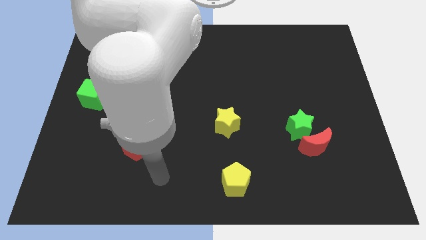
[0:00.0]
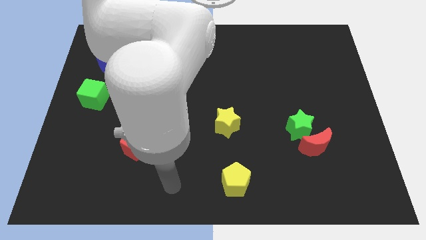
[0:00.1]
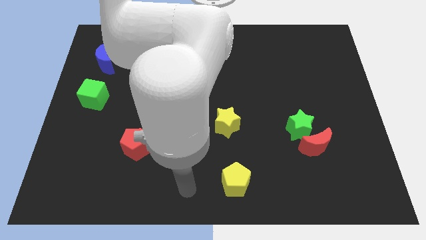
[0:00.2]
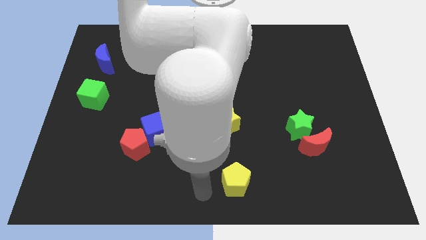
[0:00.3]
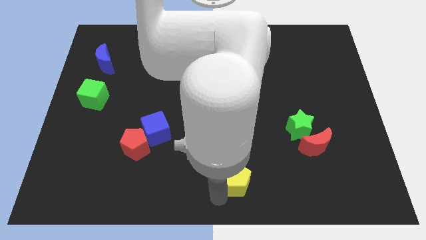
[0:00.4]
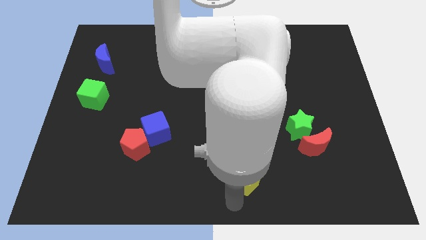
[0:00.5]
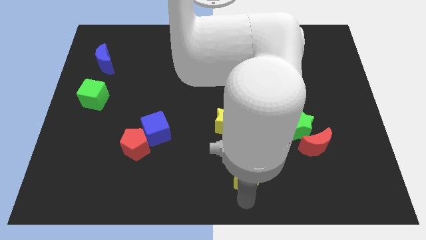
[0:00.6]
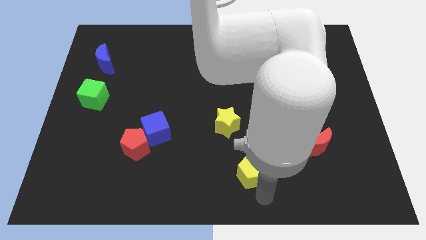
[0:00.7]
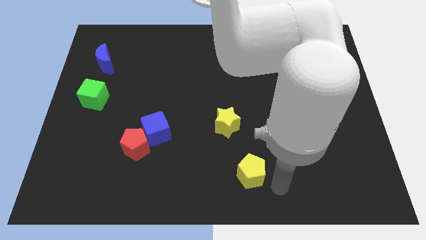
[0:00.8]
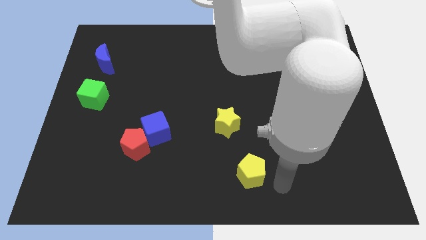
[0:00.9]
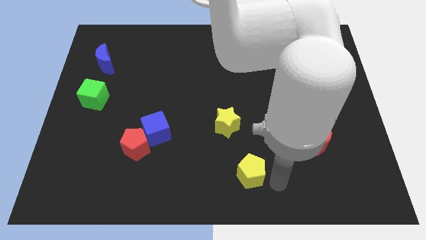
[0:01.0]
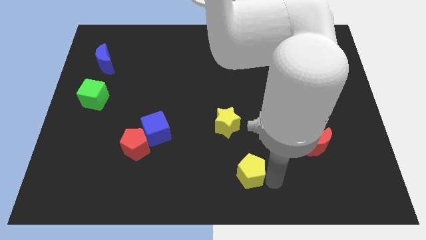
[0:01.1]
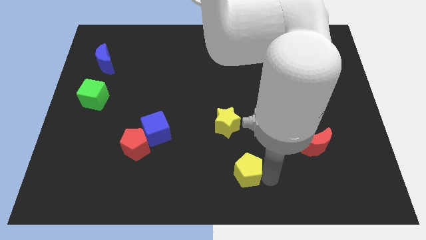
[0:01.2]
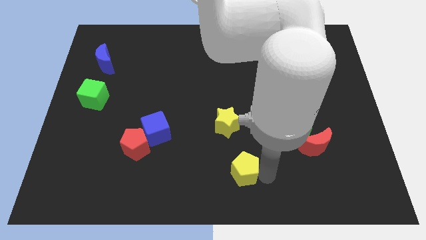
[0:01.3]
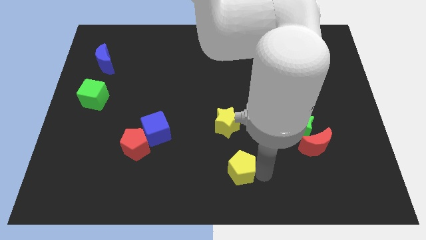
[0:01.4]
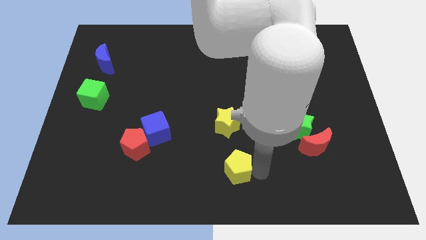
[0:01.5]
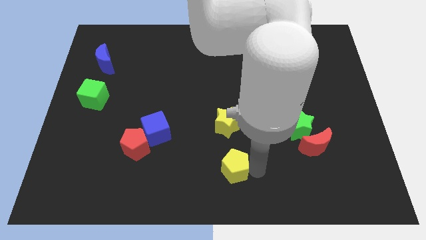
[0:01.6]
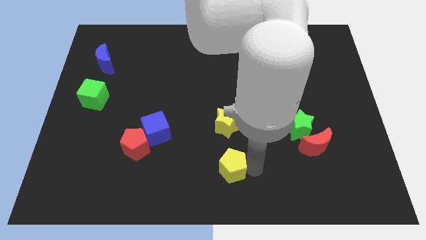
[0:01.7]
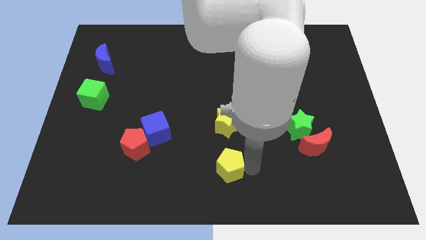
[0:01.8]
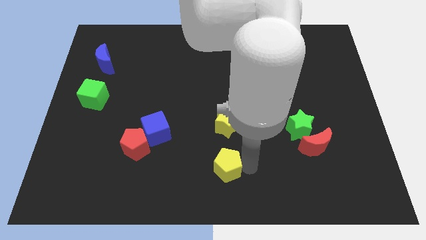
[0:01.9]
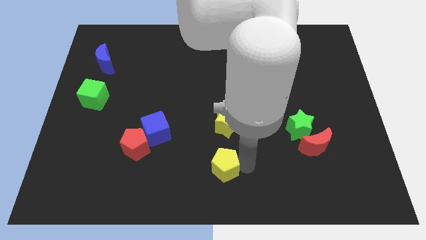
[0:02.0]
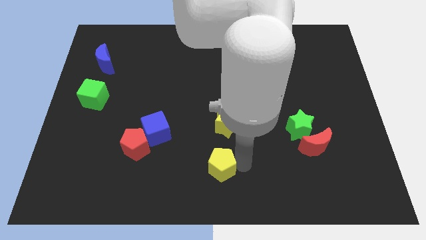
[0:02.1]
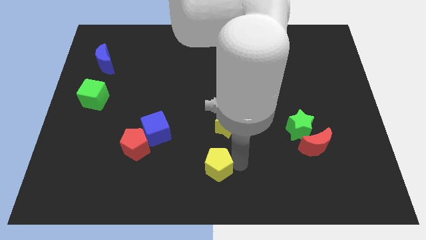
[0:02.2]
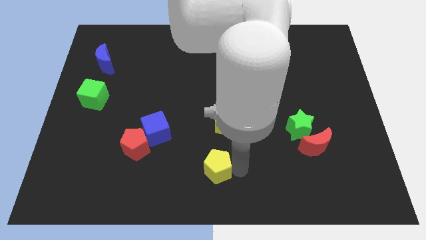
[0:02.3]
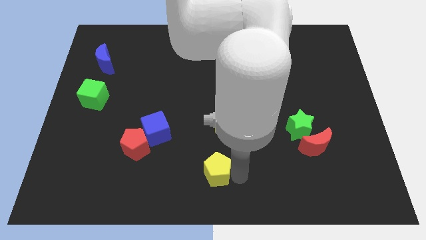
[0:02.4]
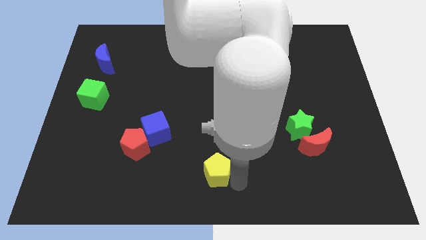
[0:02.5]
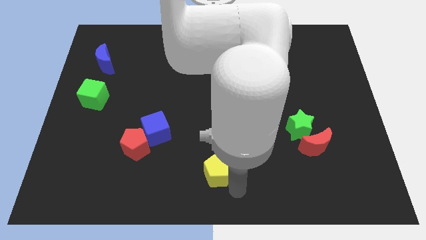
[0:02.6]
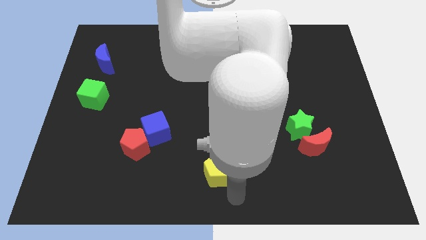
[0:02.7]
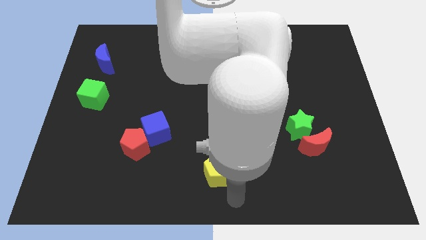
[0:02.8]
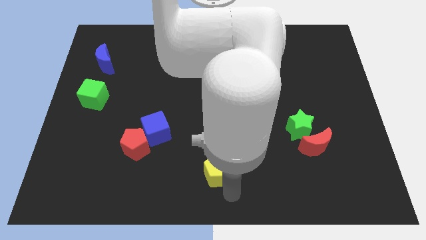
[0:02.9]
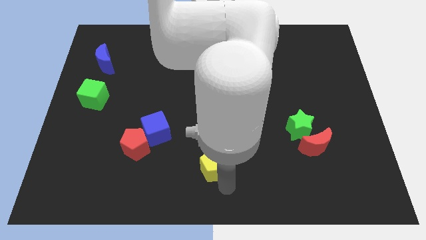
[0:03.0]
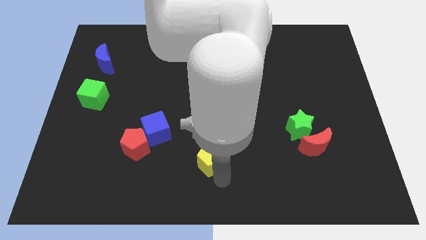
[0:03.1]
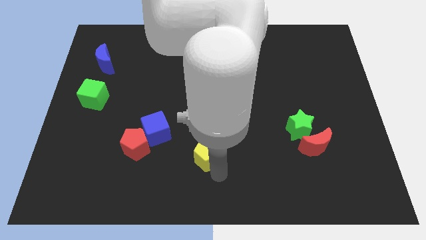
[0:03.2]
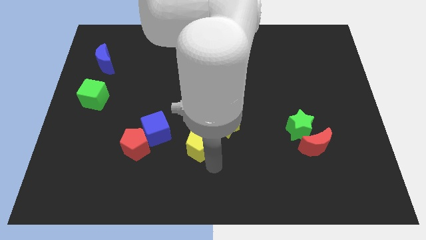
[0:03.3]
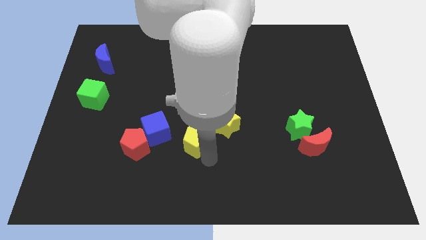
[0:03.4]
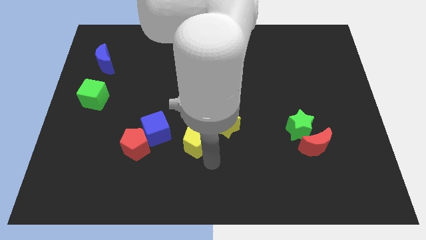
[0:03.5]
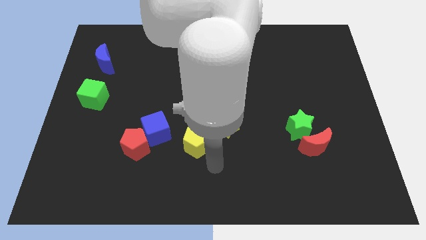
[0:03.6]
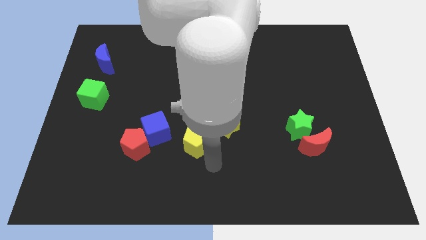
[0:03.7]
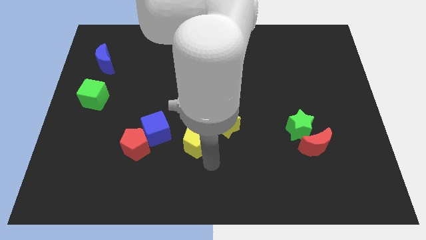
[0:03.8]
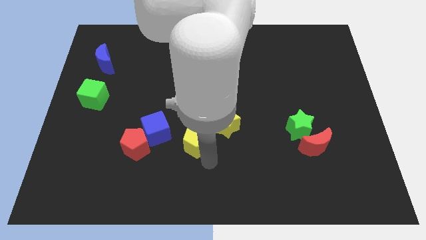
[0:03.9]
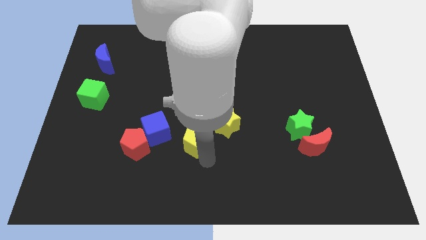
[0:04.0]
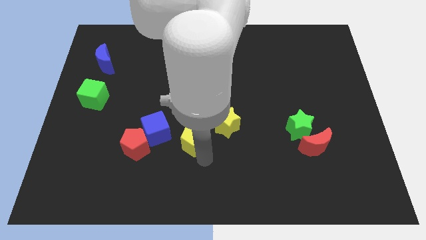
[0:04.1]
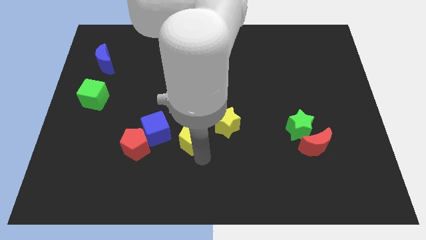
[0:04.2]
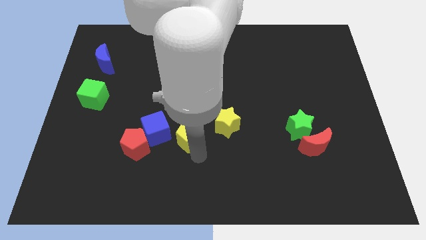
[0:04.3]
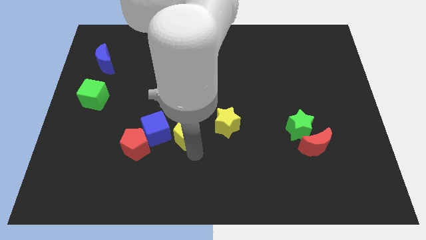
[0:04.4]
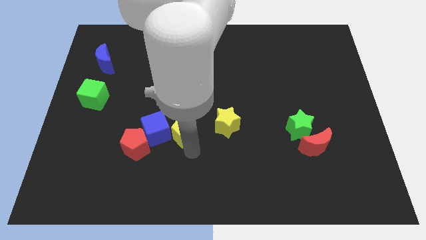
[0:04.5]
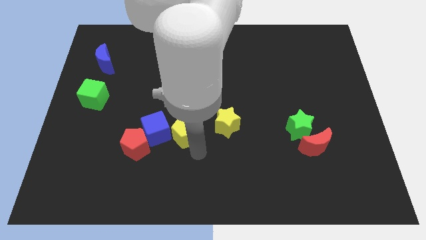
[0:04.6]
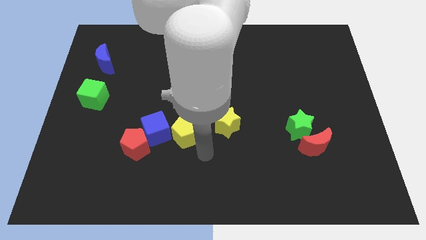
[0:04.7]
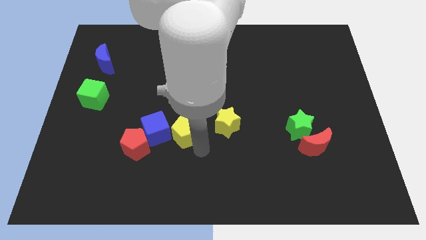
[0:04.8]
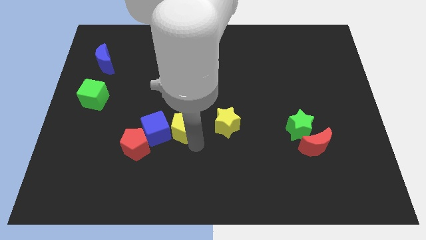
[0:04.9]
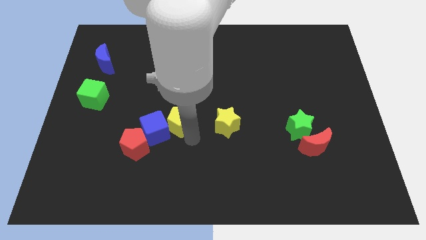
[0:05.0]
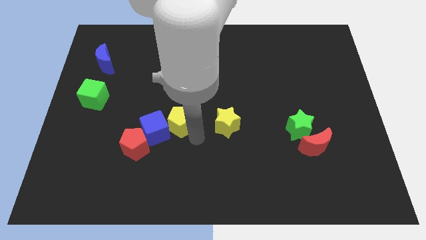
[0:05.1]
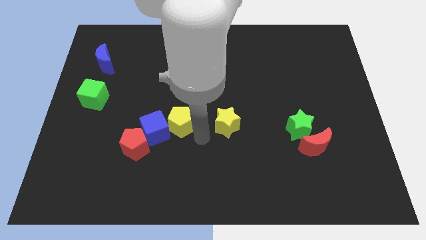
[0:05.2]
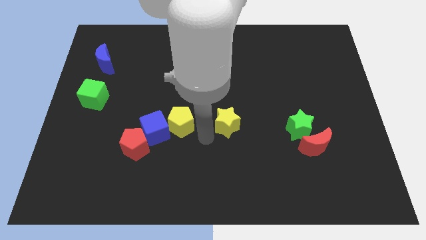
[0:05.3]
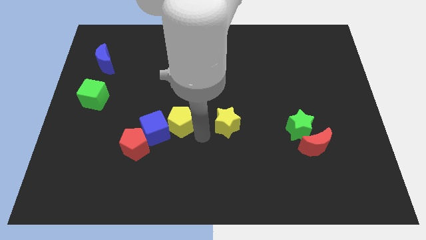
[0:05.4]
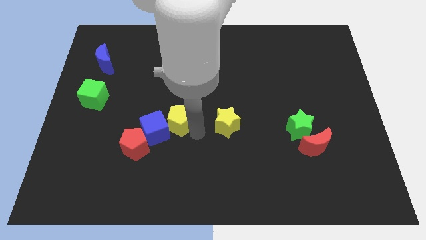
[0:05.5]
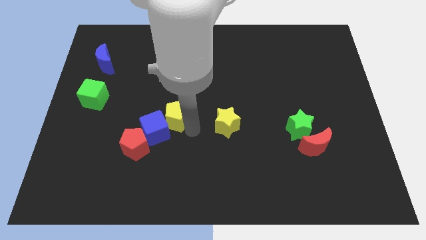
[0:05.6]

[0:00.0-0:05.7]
push the yellow pentagon up and then to the left

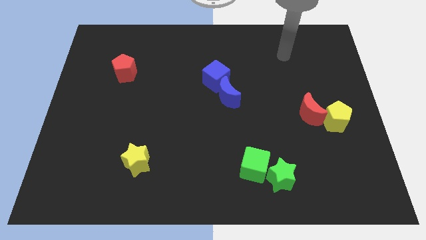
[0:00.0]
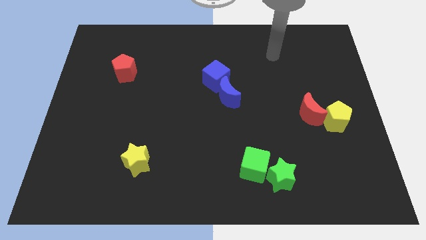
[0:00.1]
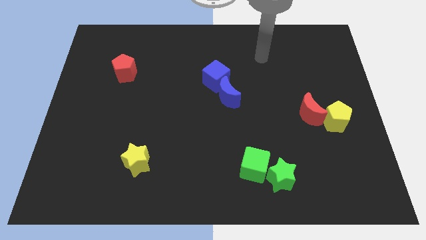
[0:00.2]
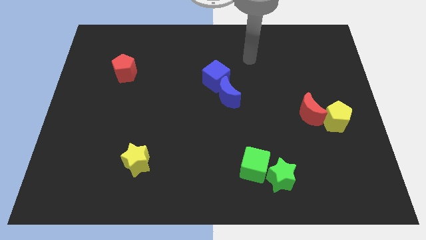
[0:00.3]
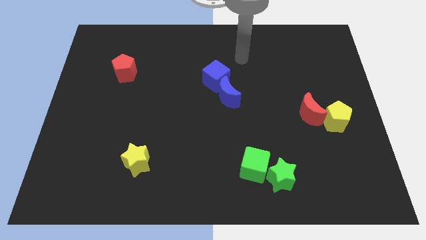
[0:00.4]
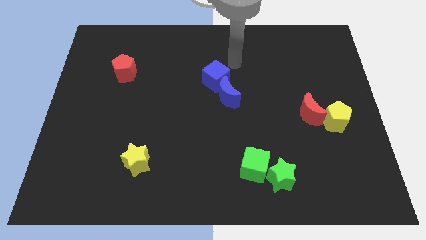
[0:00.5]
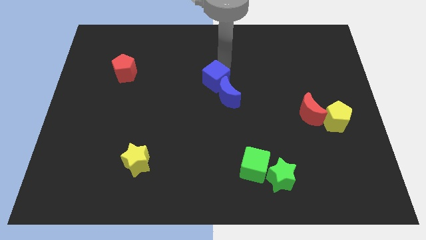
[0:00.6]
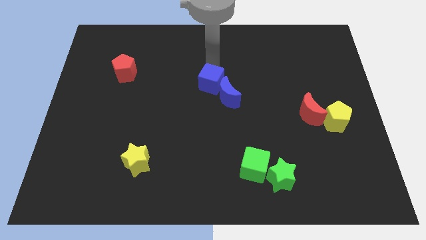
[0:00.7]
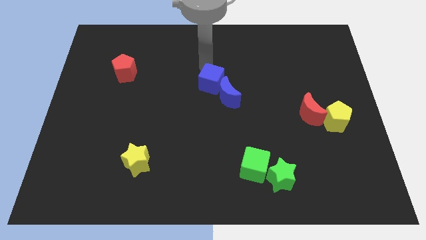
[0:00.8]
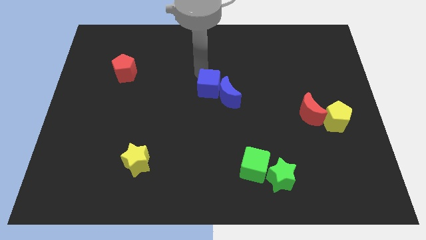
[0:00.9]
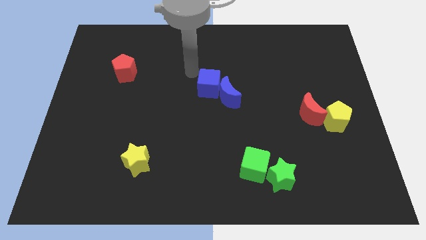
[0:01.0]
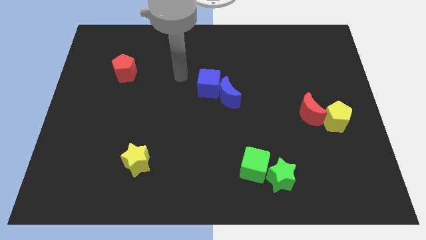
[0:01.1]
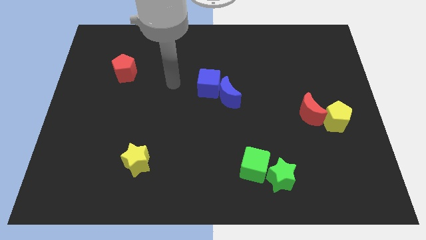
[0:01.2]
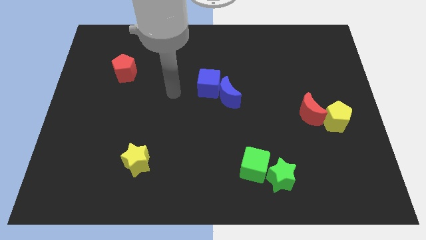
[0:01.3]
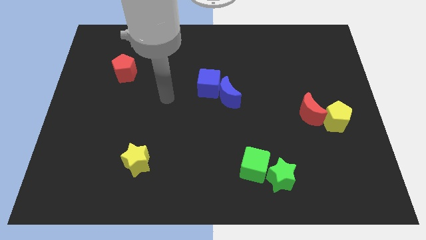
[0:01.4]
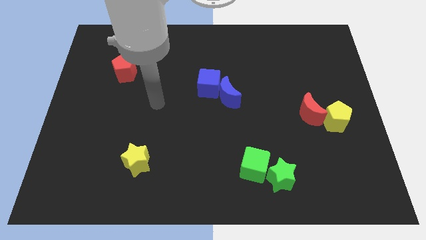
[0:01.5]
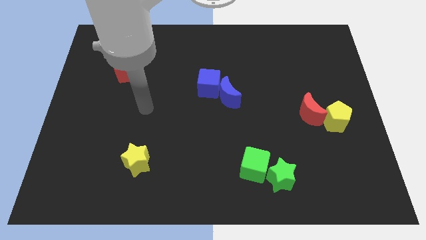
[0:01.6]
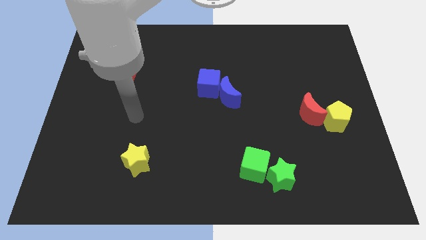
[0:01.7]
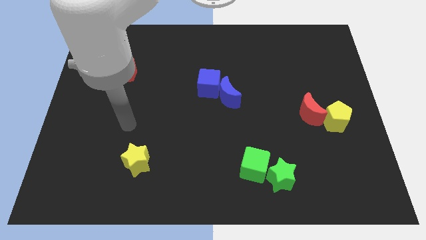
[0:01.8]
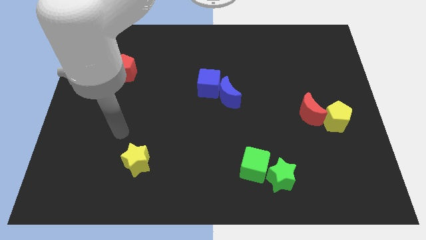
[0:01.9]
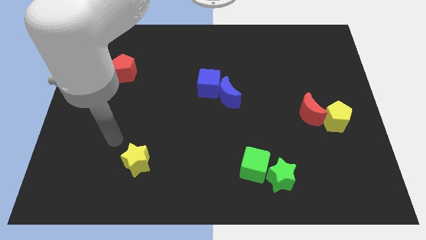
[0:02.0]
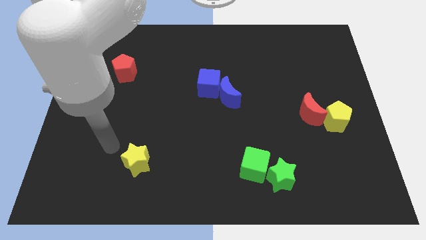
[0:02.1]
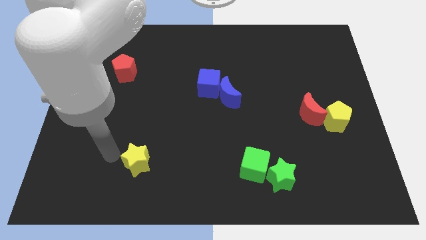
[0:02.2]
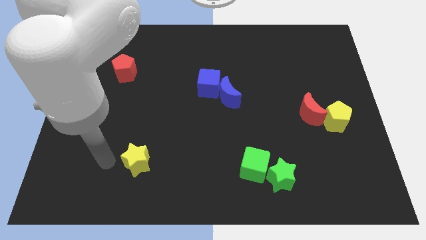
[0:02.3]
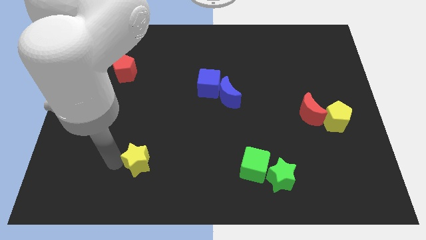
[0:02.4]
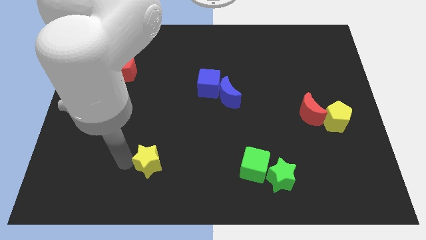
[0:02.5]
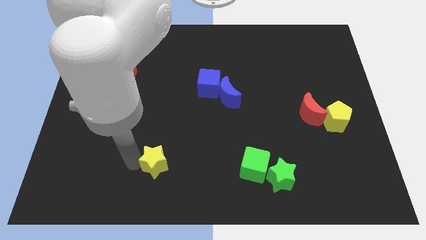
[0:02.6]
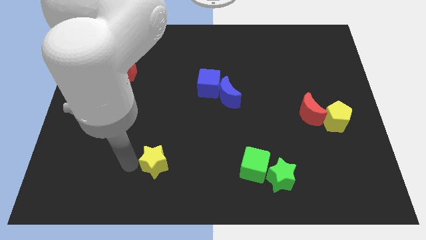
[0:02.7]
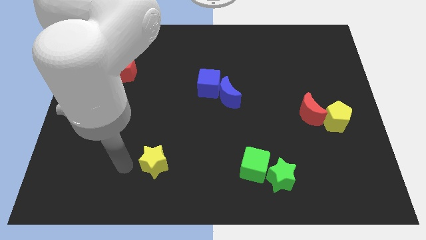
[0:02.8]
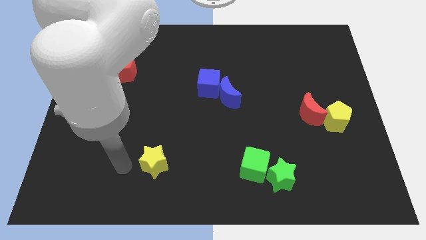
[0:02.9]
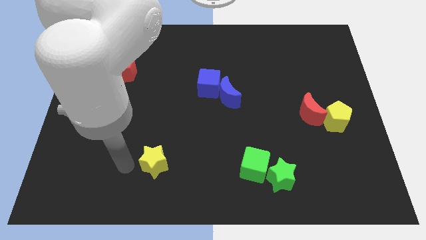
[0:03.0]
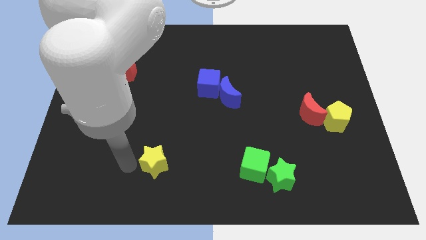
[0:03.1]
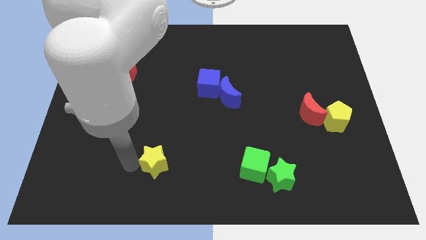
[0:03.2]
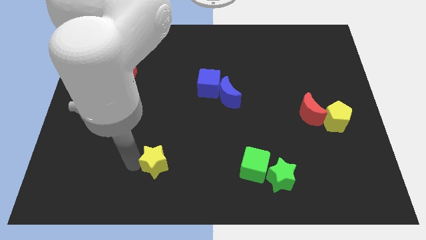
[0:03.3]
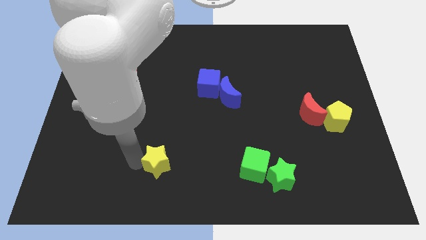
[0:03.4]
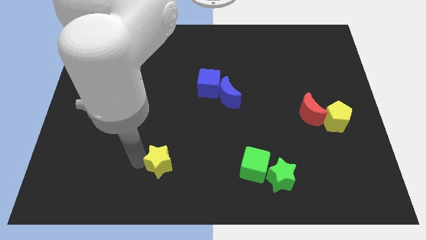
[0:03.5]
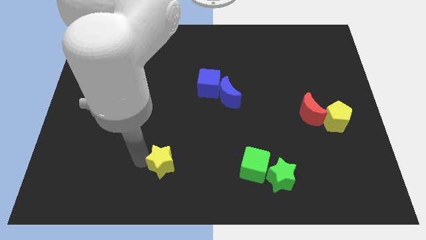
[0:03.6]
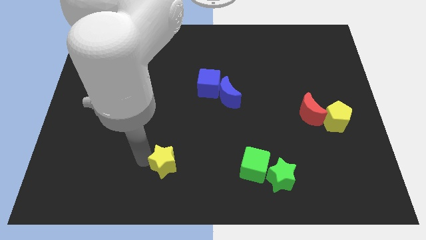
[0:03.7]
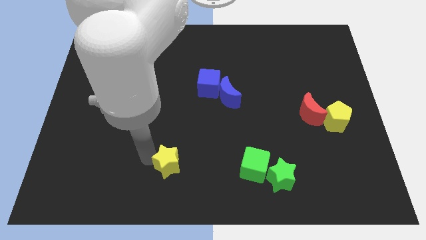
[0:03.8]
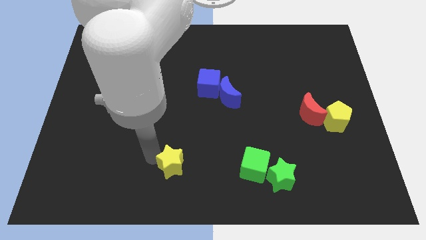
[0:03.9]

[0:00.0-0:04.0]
slightly slide the yellow star to the right
